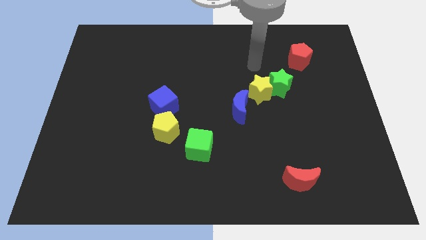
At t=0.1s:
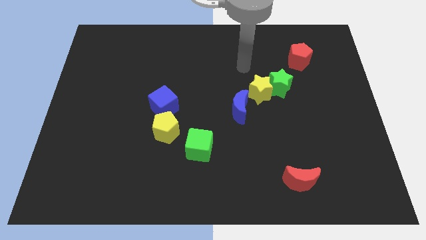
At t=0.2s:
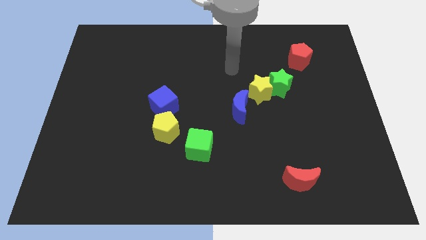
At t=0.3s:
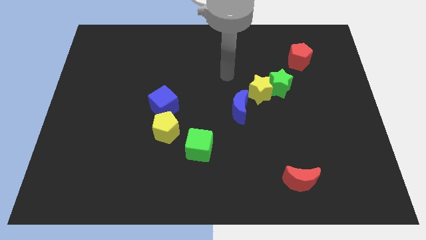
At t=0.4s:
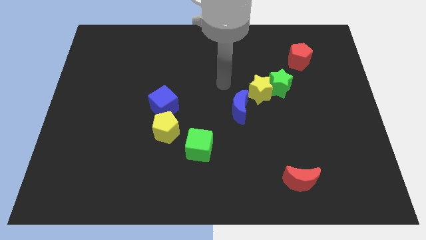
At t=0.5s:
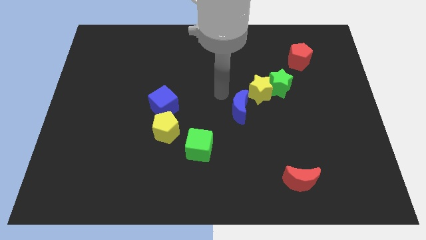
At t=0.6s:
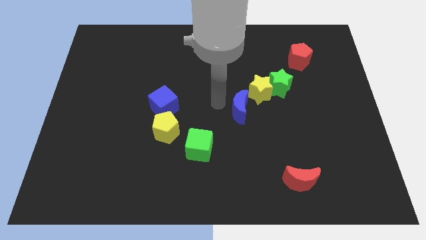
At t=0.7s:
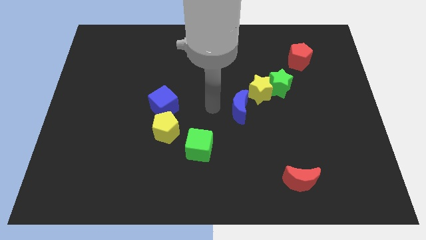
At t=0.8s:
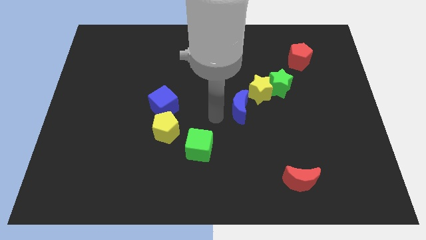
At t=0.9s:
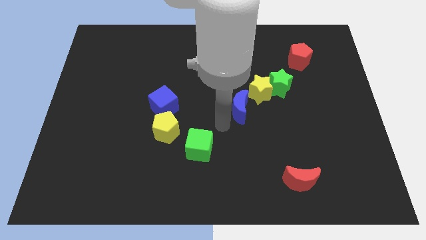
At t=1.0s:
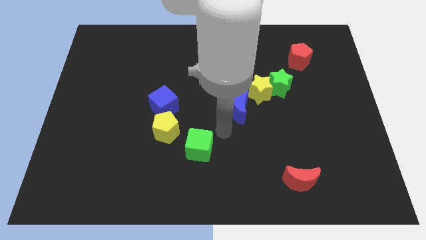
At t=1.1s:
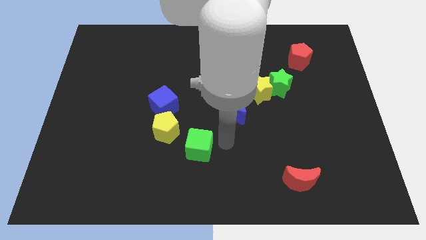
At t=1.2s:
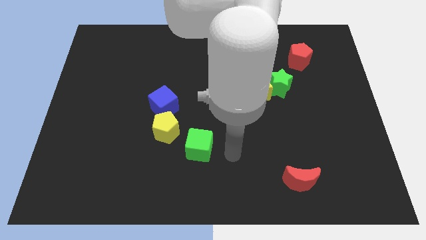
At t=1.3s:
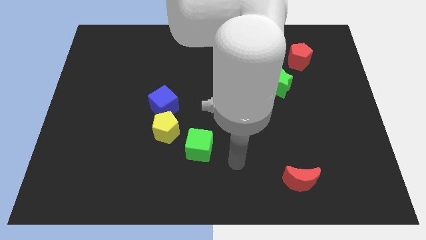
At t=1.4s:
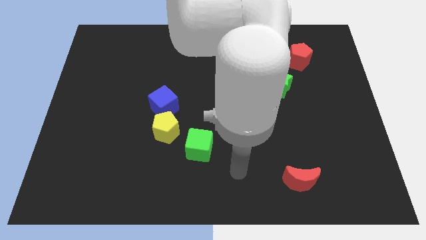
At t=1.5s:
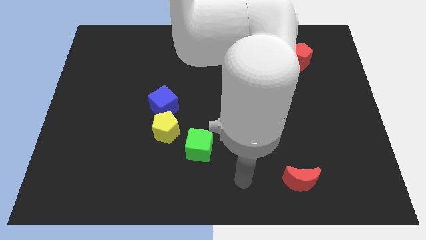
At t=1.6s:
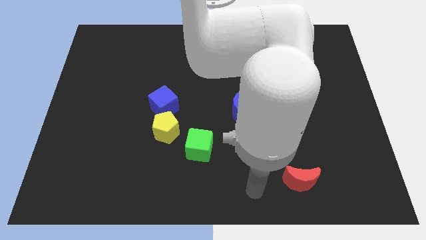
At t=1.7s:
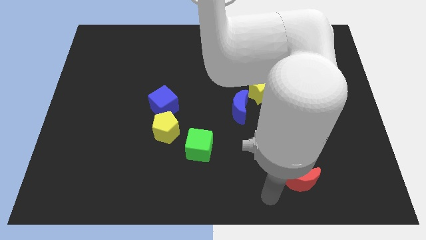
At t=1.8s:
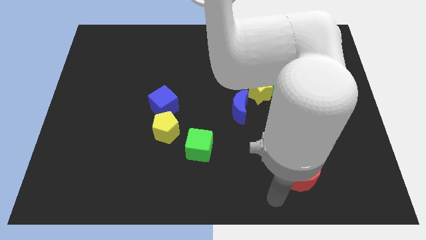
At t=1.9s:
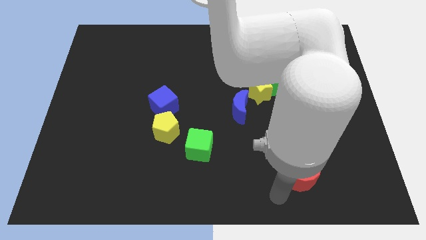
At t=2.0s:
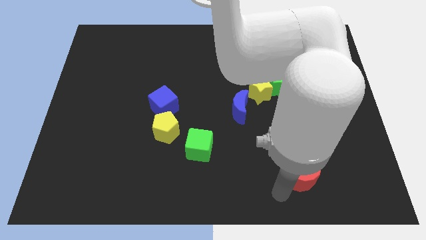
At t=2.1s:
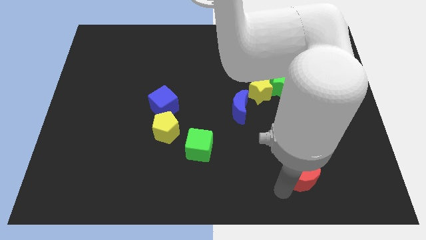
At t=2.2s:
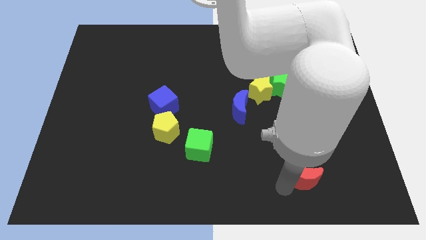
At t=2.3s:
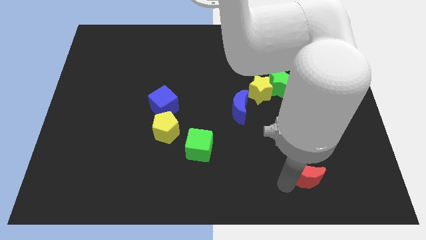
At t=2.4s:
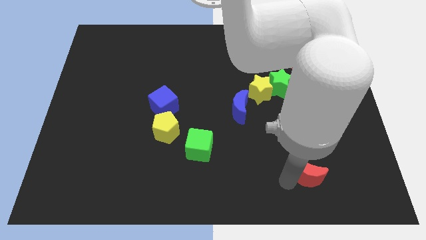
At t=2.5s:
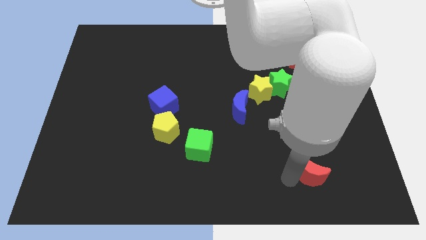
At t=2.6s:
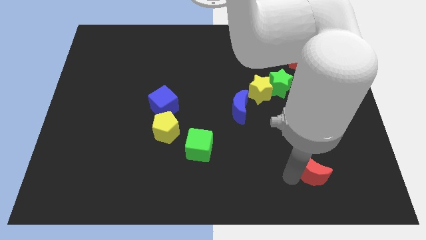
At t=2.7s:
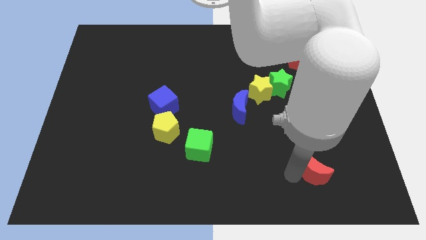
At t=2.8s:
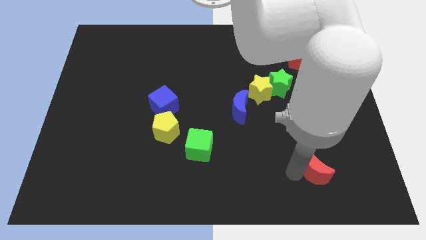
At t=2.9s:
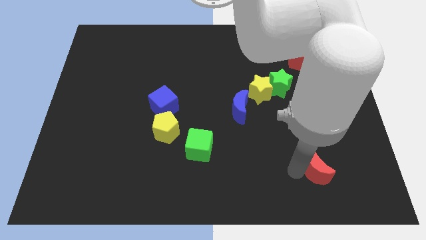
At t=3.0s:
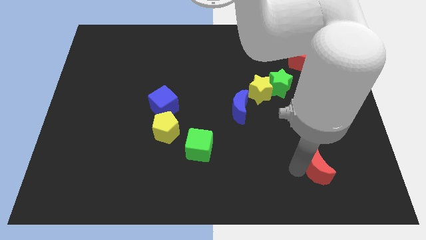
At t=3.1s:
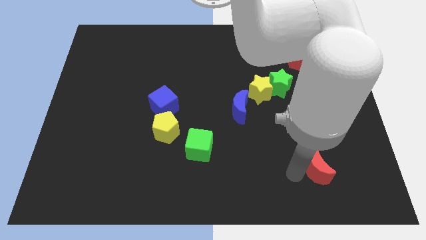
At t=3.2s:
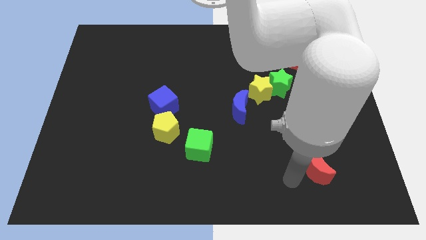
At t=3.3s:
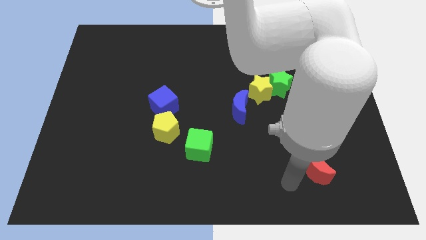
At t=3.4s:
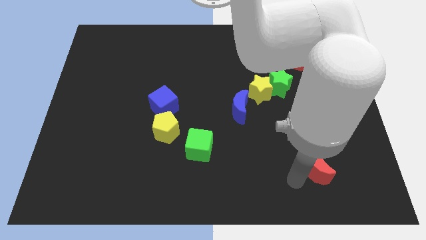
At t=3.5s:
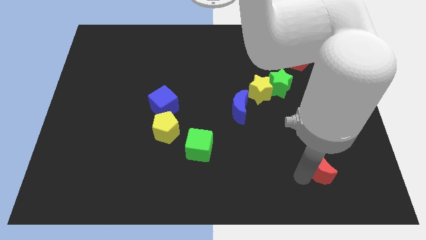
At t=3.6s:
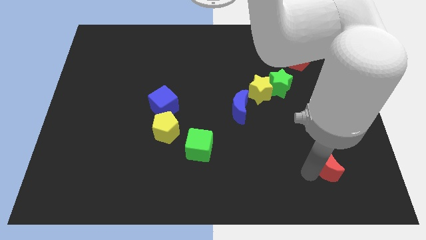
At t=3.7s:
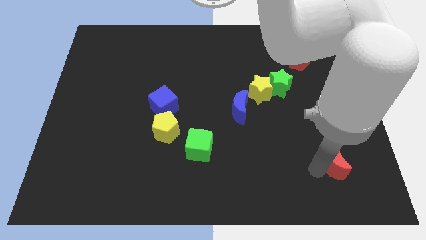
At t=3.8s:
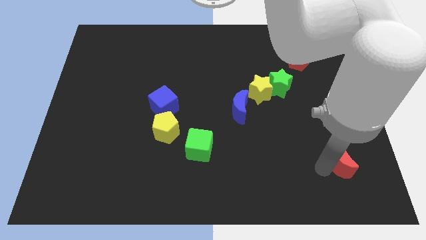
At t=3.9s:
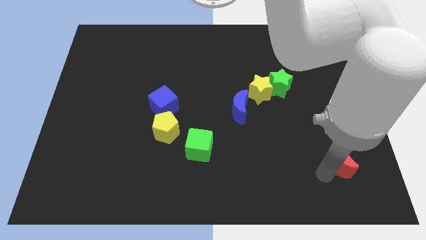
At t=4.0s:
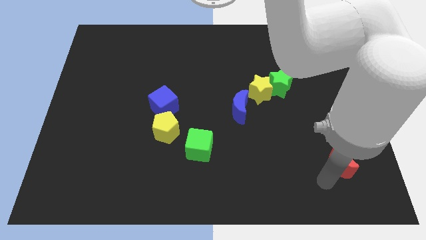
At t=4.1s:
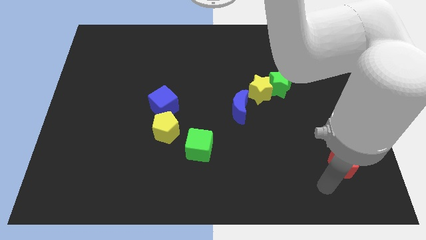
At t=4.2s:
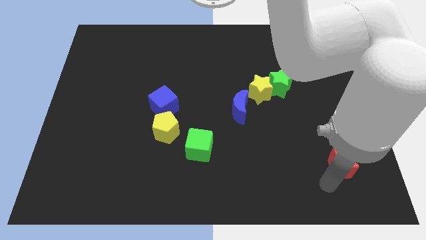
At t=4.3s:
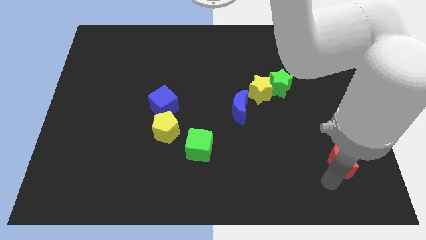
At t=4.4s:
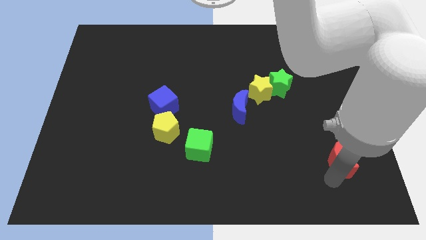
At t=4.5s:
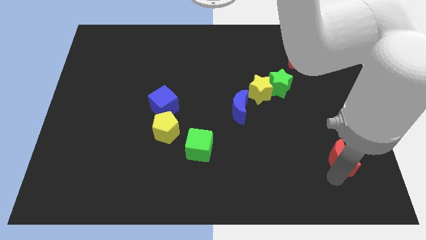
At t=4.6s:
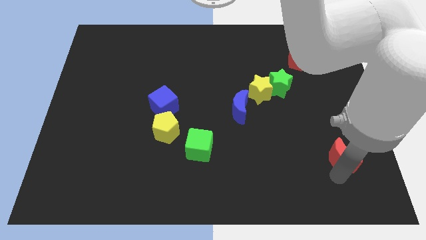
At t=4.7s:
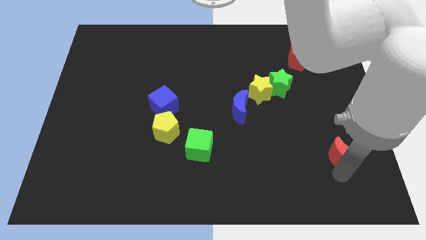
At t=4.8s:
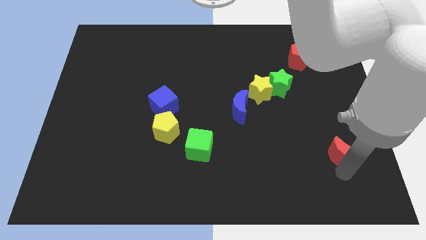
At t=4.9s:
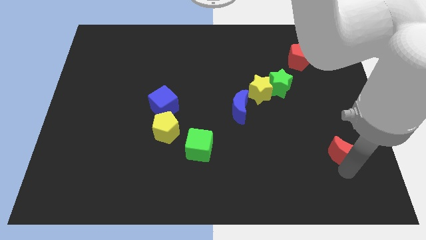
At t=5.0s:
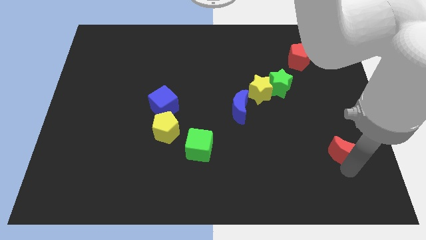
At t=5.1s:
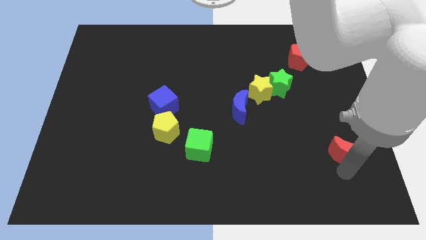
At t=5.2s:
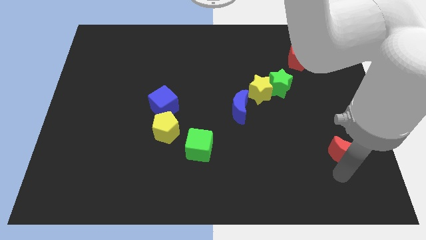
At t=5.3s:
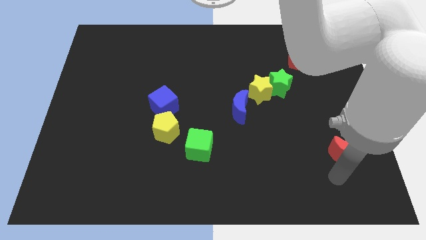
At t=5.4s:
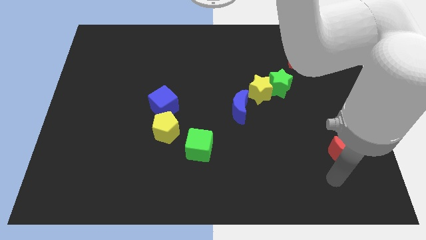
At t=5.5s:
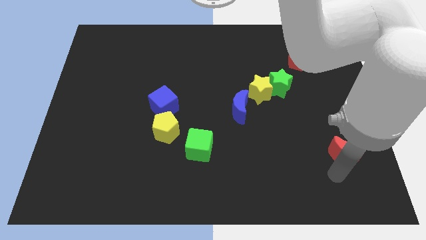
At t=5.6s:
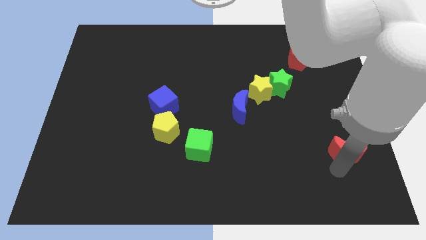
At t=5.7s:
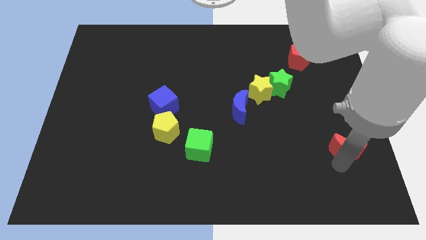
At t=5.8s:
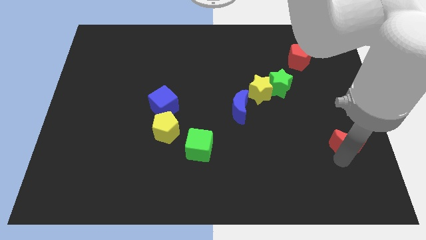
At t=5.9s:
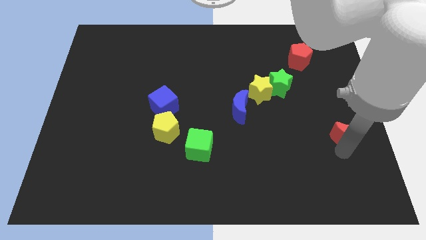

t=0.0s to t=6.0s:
move the red moon to the center right

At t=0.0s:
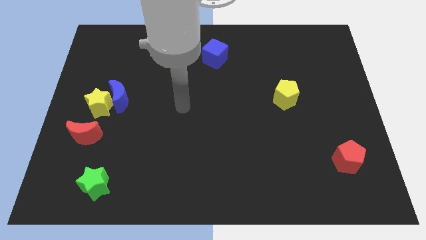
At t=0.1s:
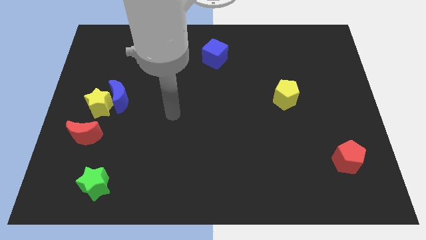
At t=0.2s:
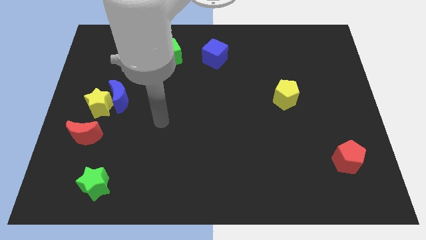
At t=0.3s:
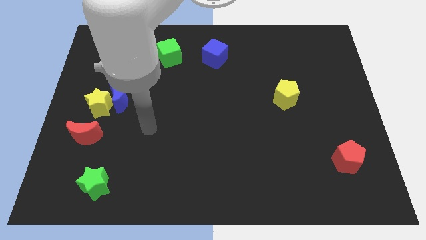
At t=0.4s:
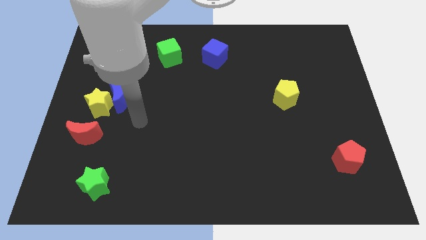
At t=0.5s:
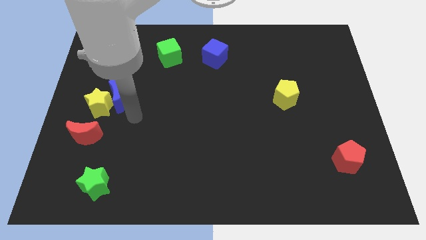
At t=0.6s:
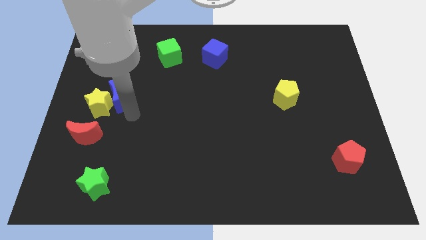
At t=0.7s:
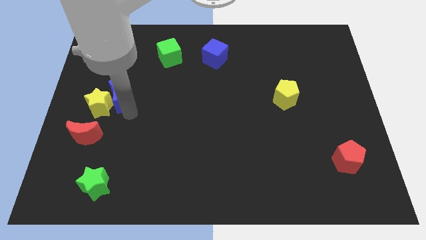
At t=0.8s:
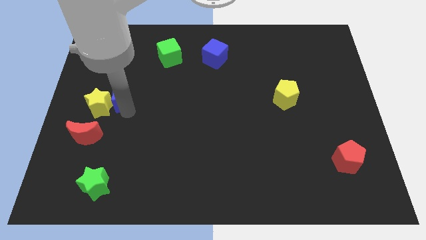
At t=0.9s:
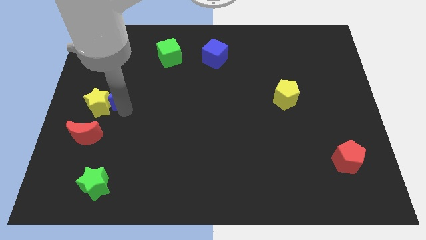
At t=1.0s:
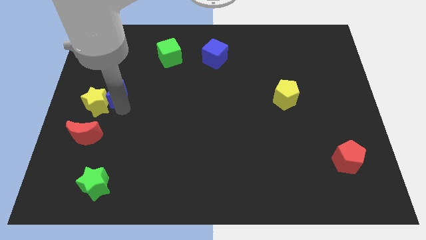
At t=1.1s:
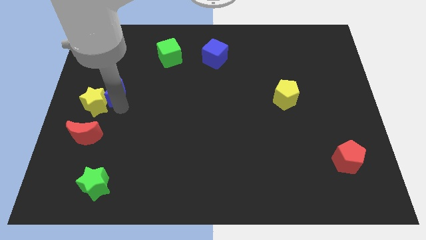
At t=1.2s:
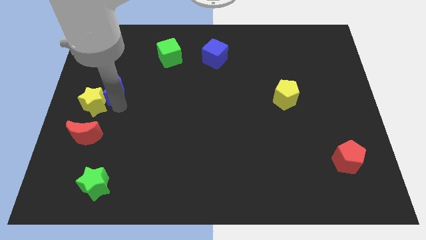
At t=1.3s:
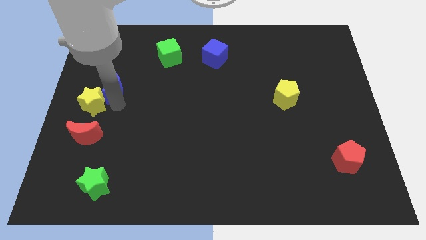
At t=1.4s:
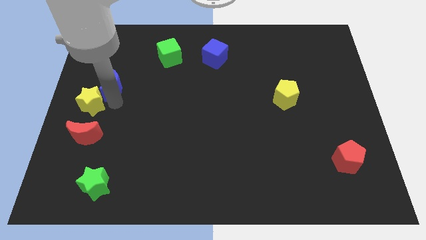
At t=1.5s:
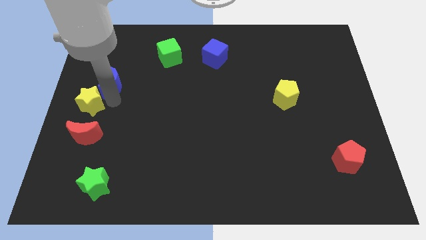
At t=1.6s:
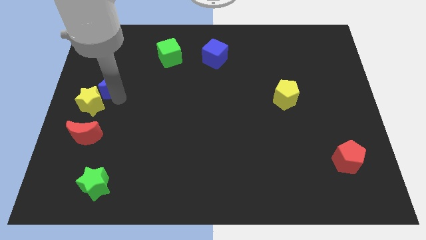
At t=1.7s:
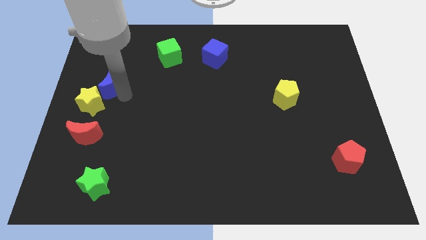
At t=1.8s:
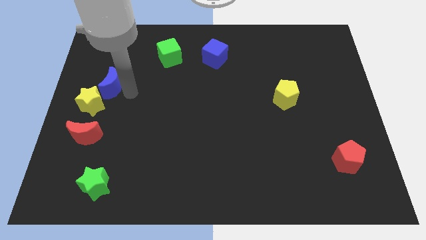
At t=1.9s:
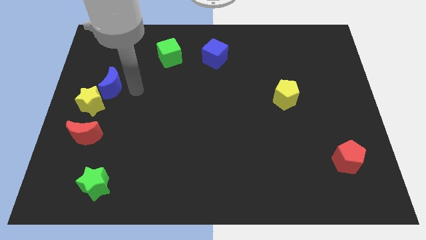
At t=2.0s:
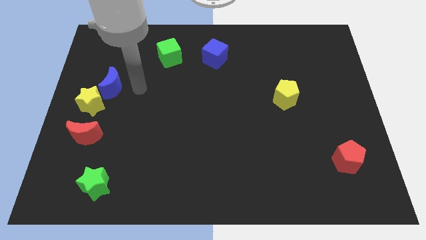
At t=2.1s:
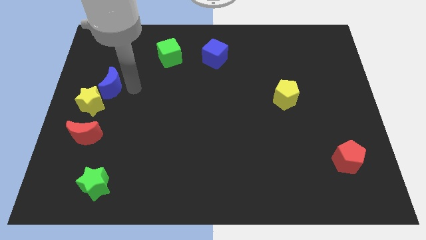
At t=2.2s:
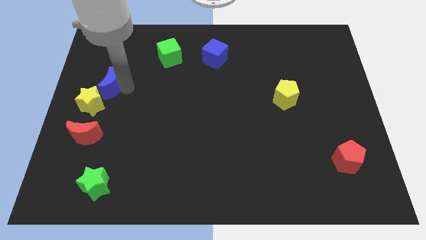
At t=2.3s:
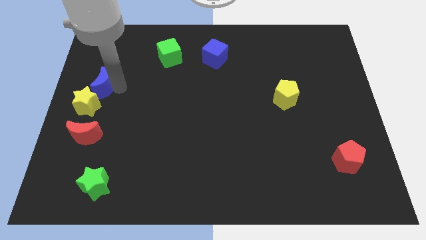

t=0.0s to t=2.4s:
slide the blue moon to the center left
